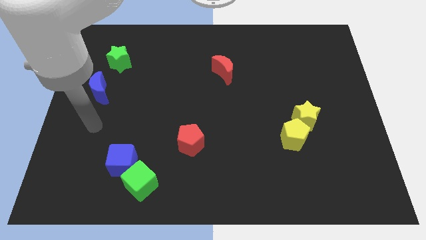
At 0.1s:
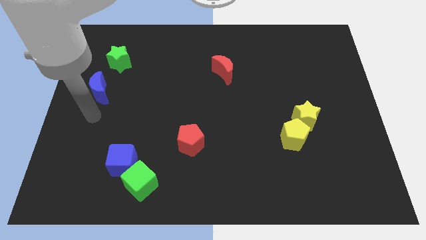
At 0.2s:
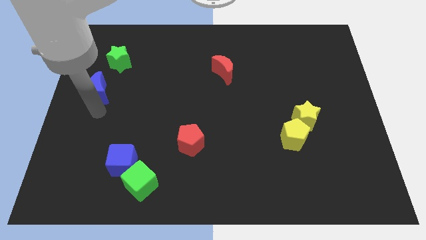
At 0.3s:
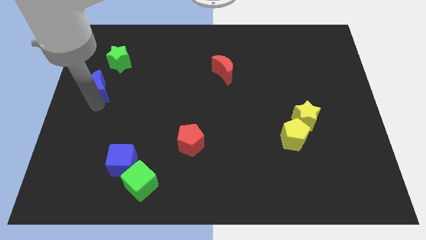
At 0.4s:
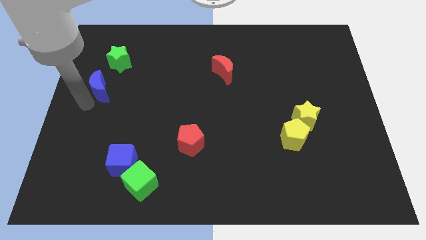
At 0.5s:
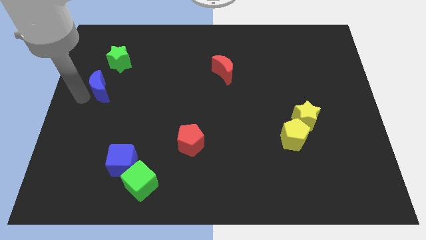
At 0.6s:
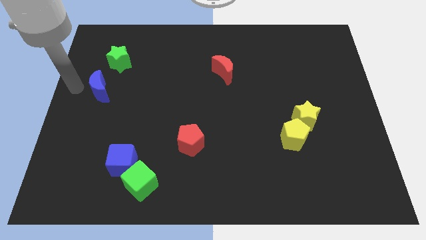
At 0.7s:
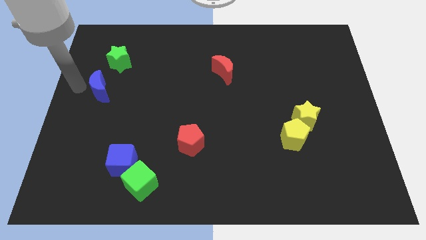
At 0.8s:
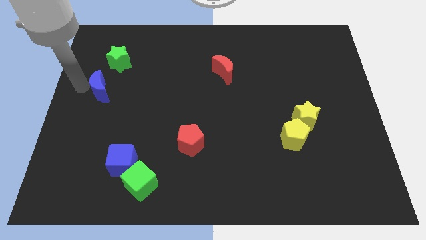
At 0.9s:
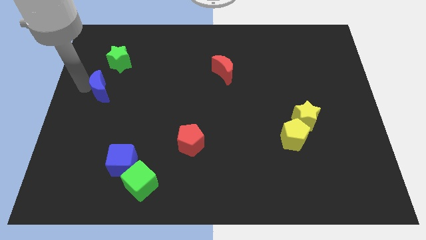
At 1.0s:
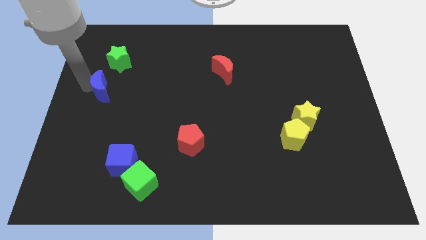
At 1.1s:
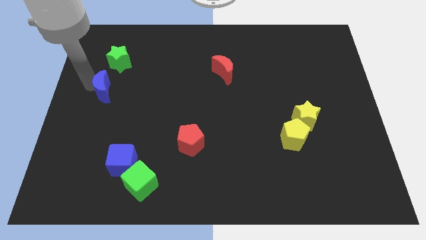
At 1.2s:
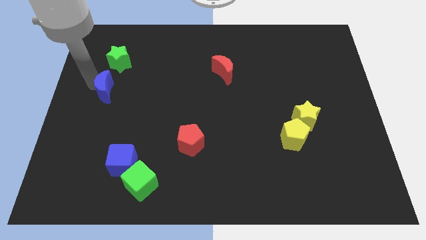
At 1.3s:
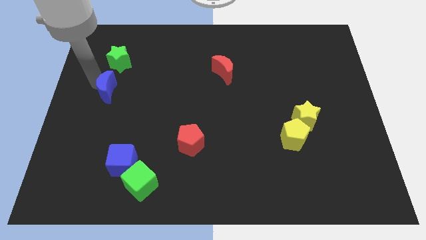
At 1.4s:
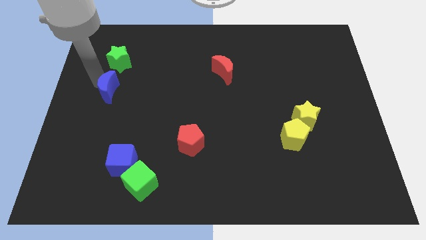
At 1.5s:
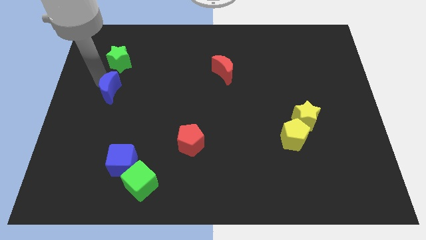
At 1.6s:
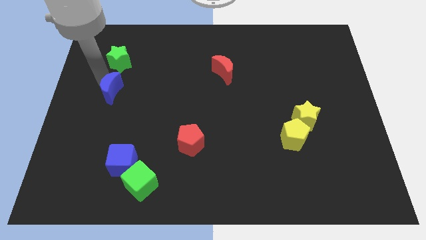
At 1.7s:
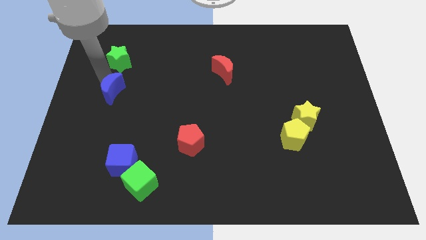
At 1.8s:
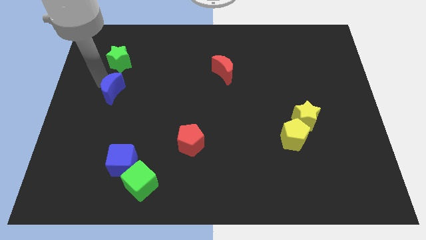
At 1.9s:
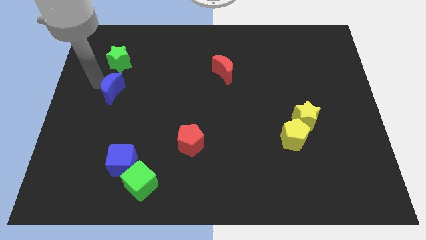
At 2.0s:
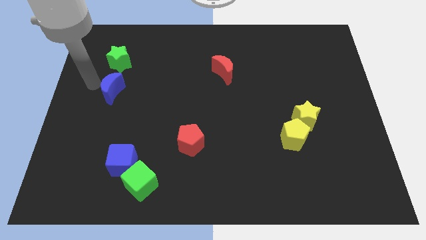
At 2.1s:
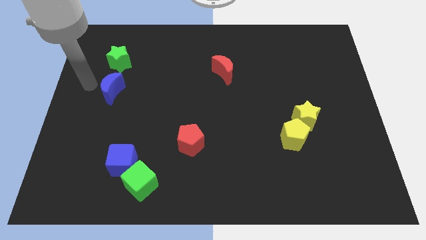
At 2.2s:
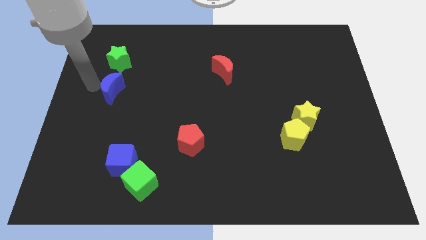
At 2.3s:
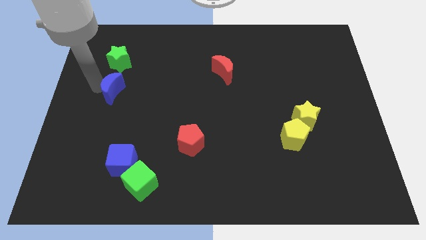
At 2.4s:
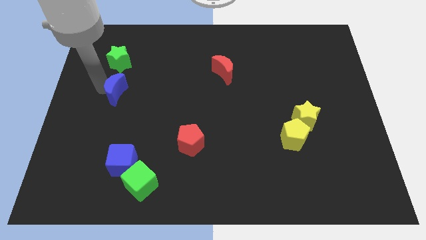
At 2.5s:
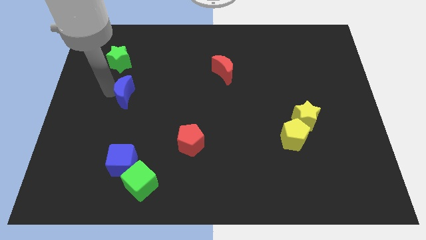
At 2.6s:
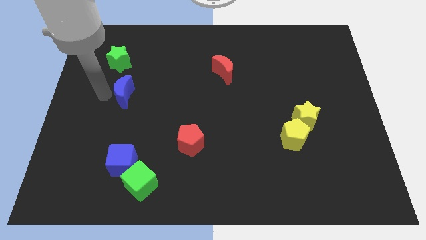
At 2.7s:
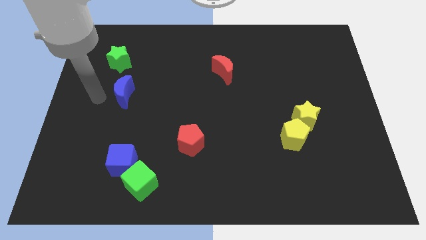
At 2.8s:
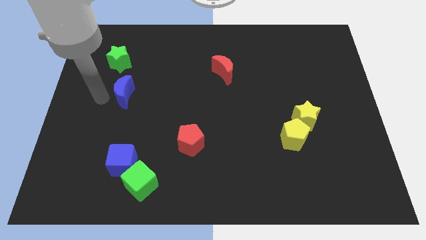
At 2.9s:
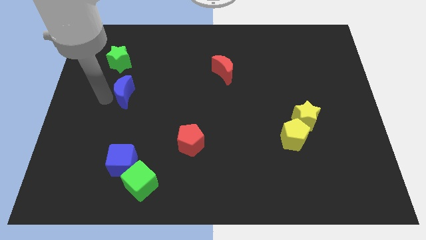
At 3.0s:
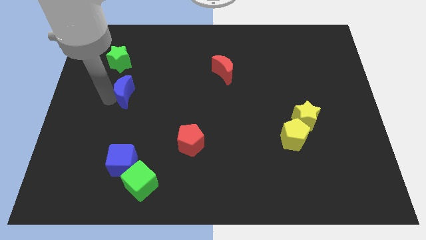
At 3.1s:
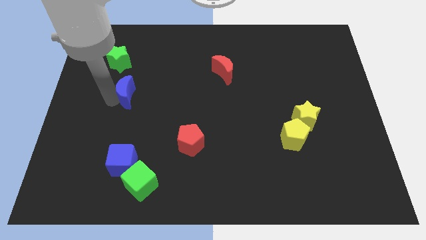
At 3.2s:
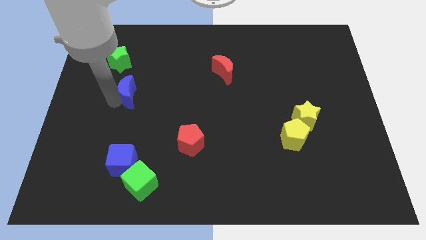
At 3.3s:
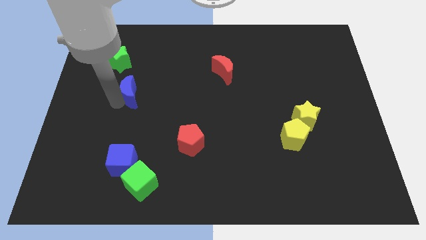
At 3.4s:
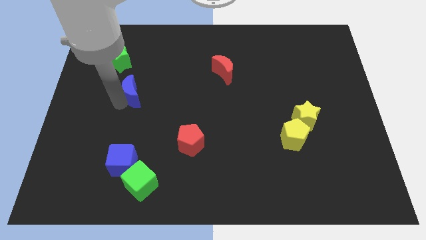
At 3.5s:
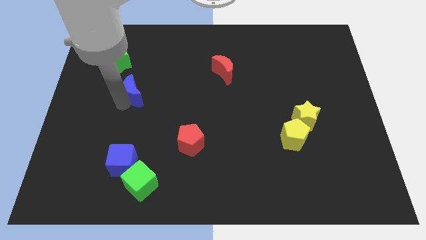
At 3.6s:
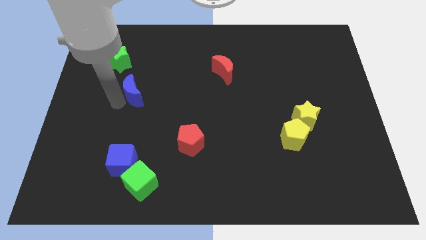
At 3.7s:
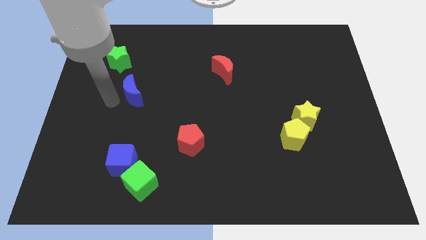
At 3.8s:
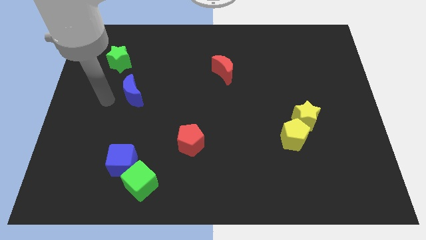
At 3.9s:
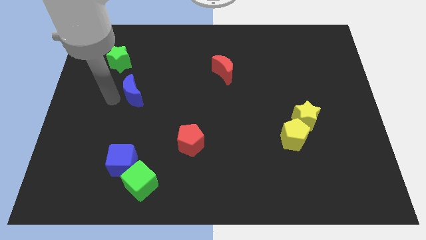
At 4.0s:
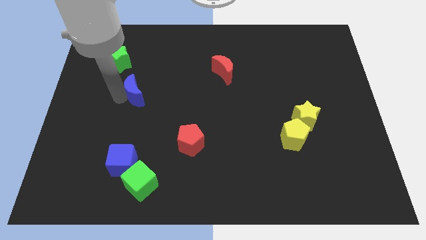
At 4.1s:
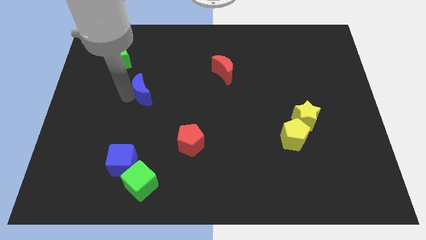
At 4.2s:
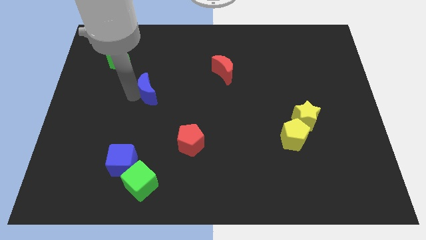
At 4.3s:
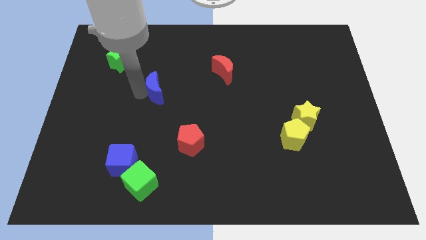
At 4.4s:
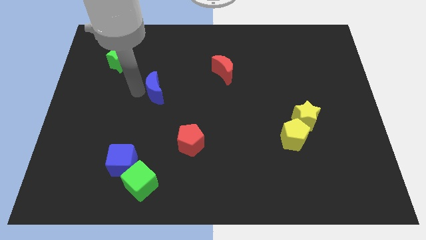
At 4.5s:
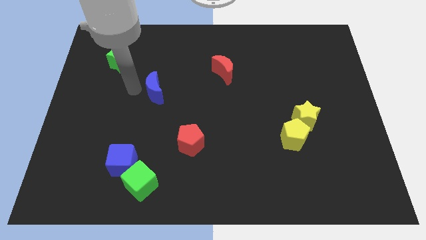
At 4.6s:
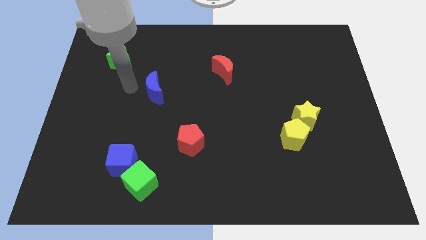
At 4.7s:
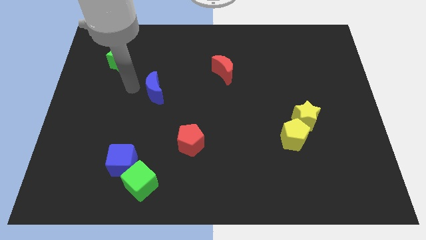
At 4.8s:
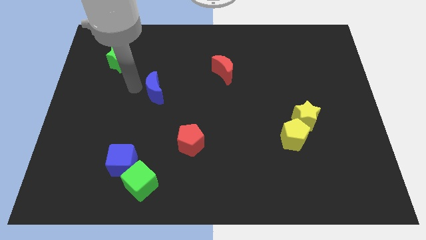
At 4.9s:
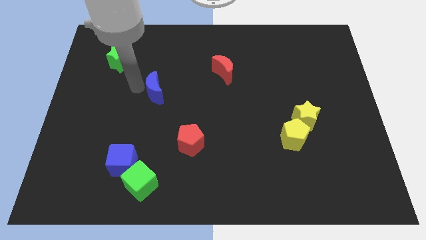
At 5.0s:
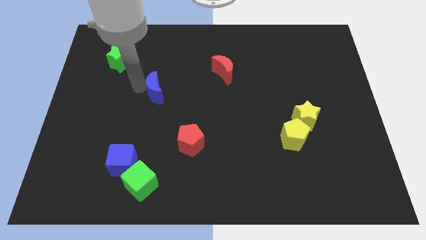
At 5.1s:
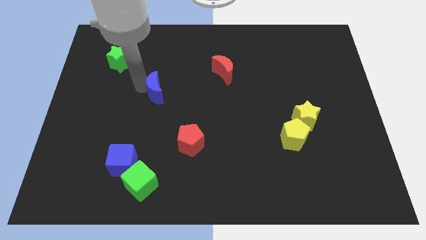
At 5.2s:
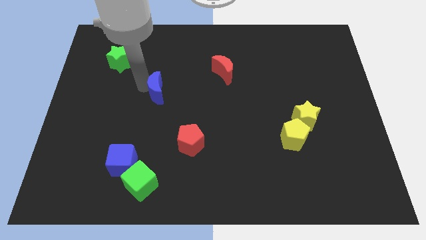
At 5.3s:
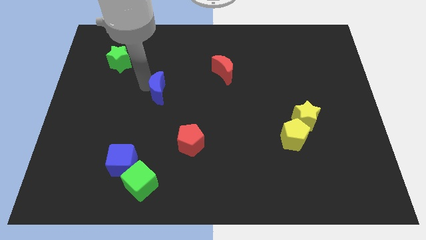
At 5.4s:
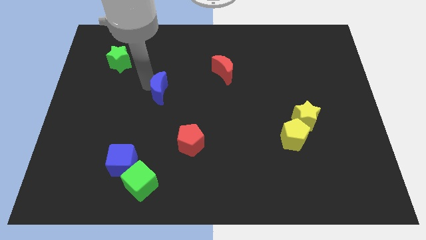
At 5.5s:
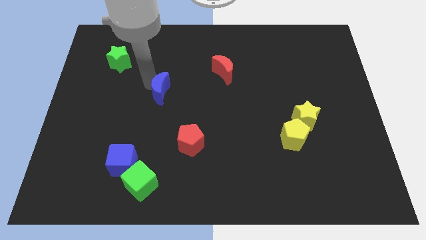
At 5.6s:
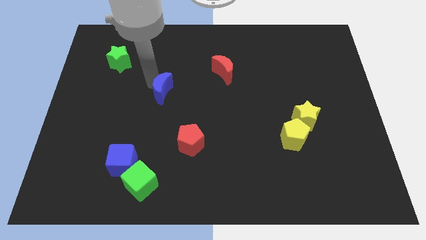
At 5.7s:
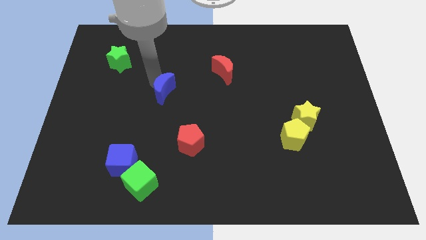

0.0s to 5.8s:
move the blue moon to the center

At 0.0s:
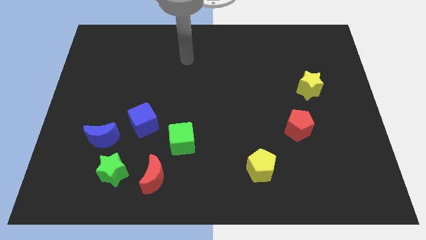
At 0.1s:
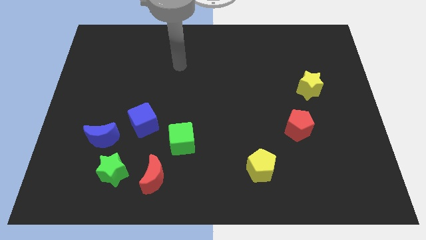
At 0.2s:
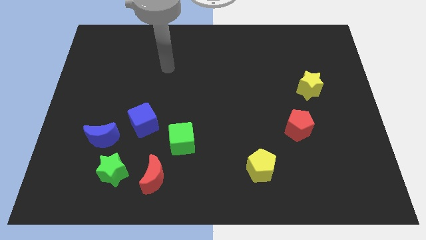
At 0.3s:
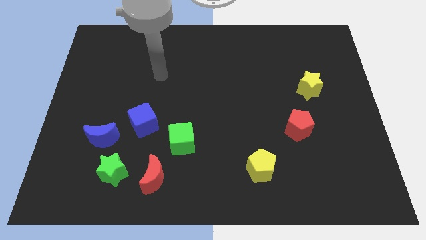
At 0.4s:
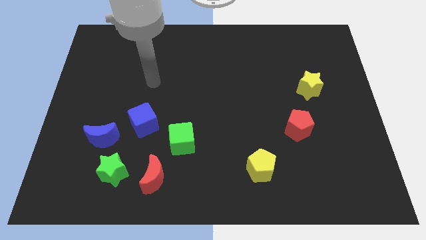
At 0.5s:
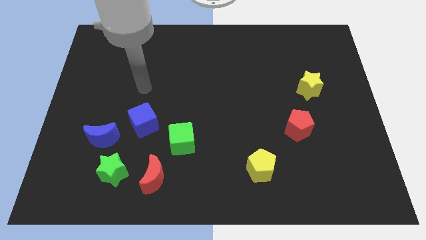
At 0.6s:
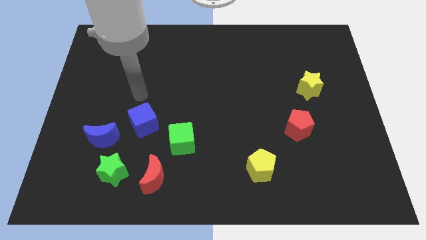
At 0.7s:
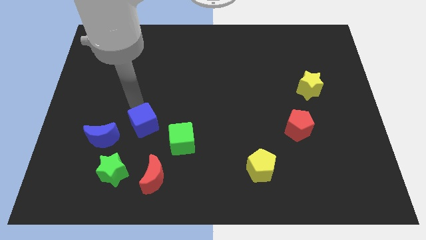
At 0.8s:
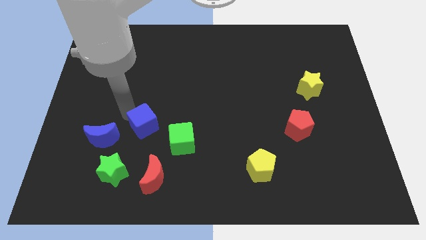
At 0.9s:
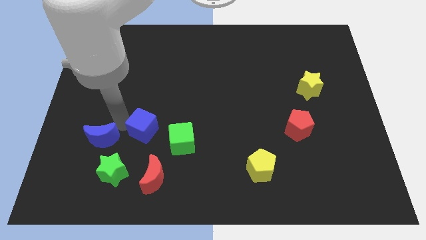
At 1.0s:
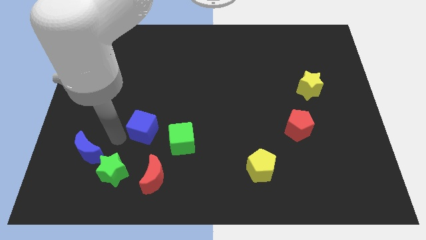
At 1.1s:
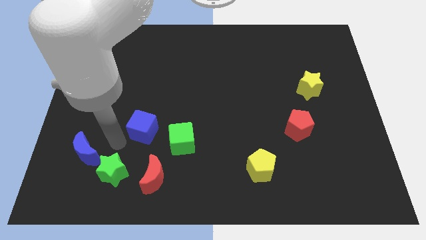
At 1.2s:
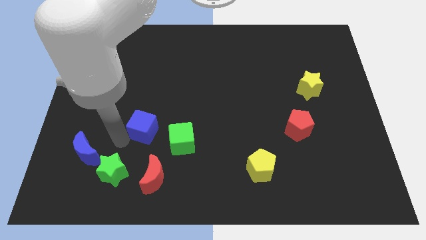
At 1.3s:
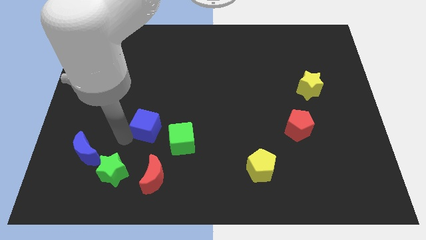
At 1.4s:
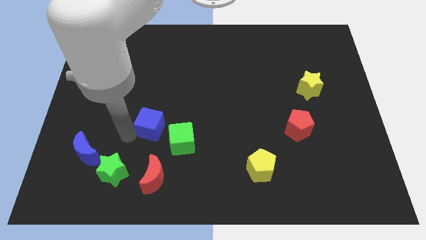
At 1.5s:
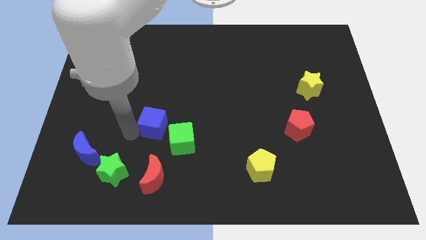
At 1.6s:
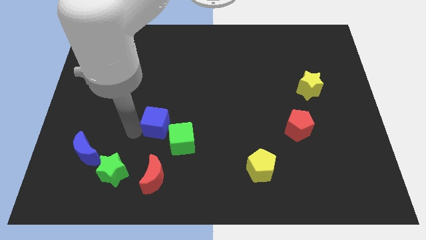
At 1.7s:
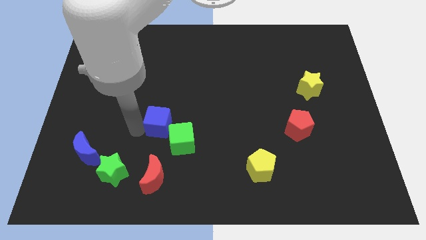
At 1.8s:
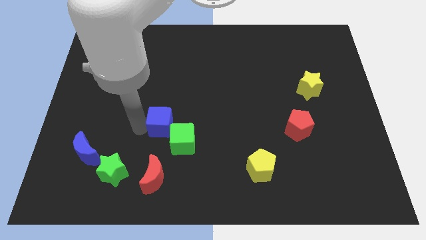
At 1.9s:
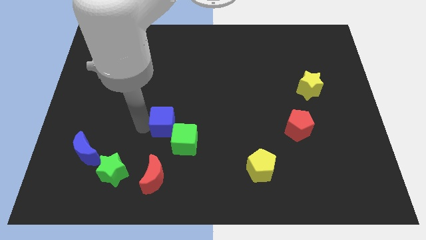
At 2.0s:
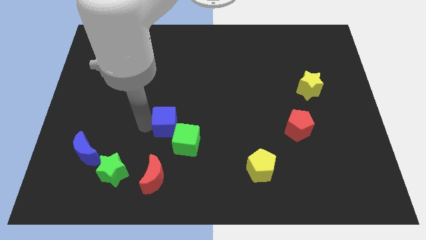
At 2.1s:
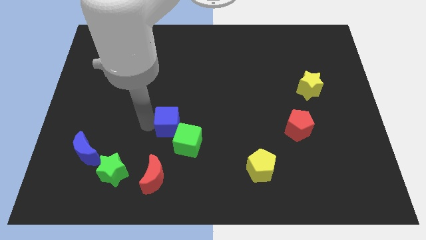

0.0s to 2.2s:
slide the blue cube to the center
